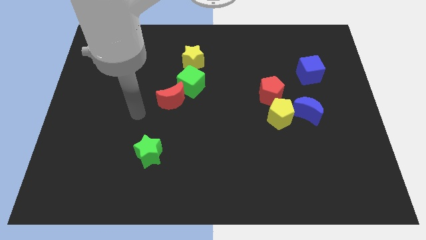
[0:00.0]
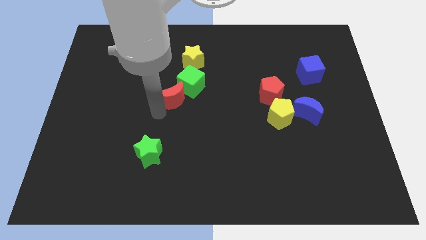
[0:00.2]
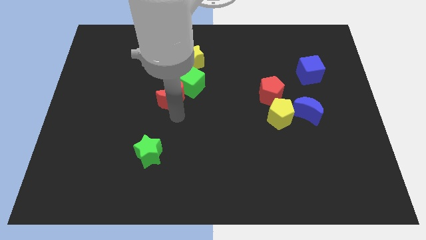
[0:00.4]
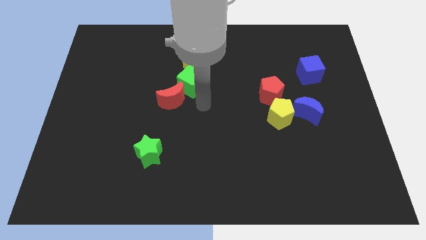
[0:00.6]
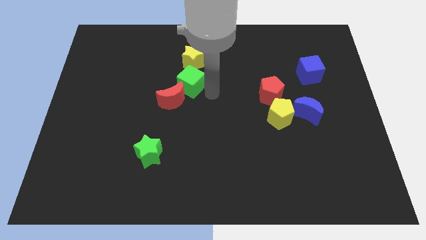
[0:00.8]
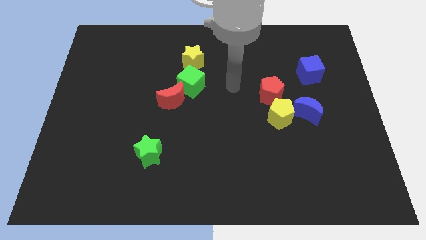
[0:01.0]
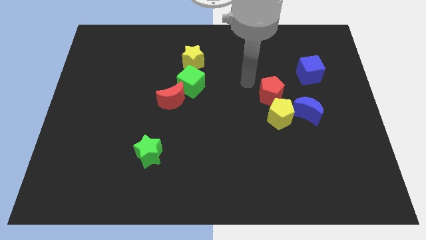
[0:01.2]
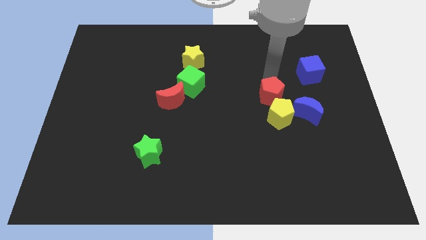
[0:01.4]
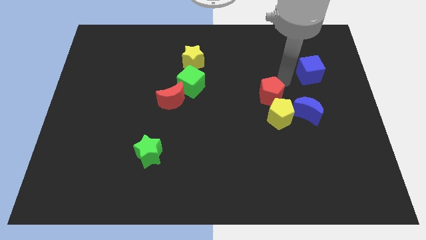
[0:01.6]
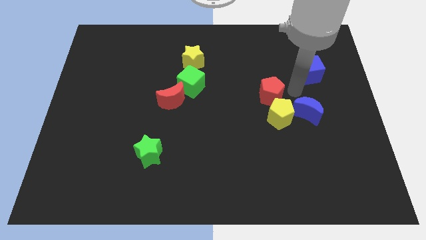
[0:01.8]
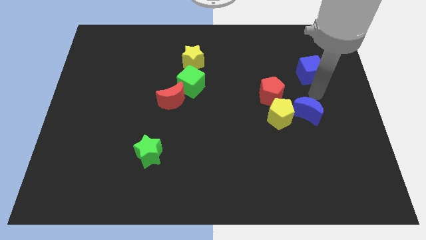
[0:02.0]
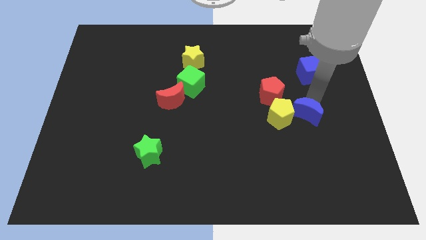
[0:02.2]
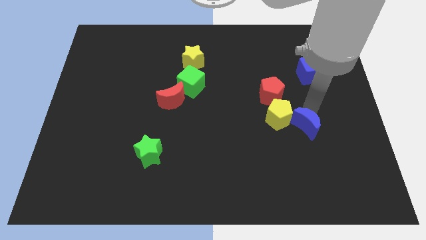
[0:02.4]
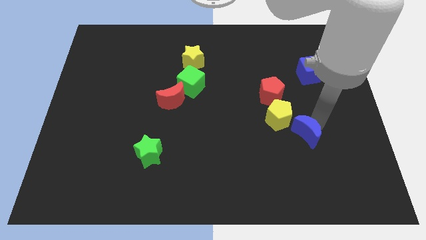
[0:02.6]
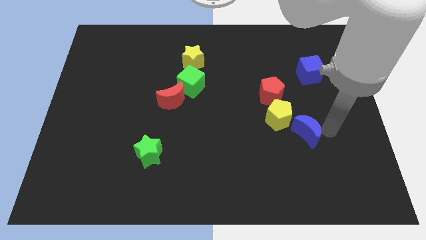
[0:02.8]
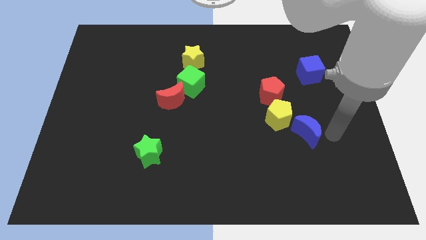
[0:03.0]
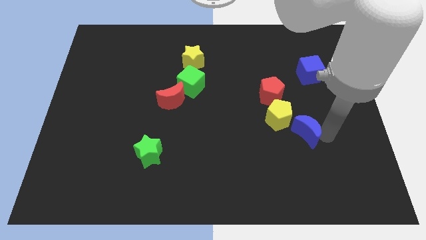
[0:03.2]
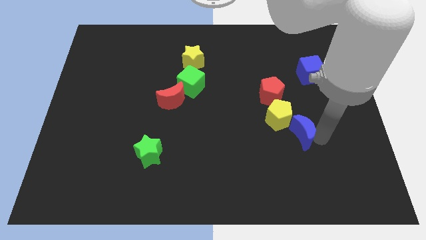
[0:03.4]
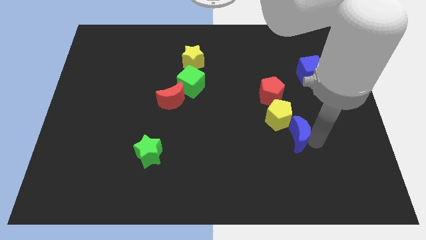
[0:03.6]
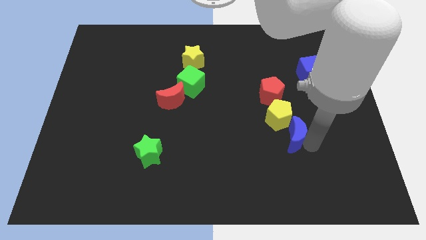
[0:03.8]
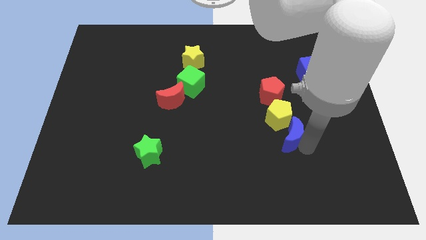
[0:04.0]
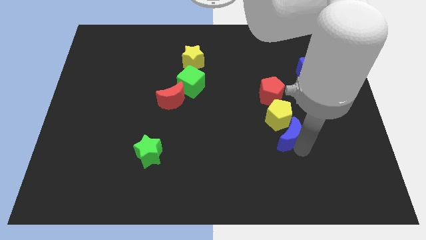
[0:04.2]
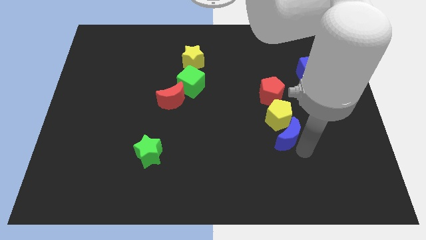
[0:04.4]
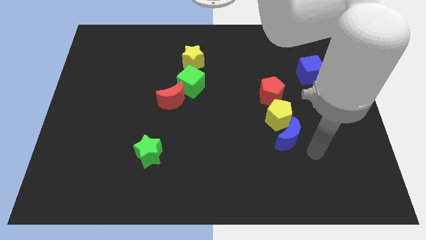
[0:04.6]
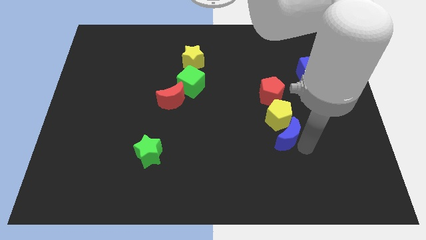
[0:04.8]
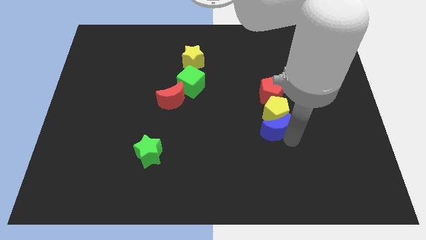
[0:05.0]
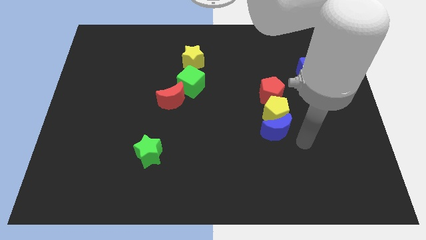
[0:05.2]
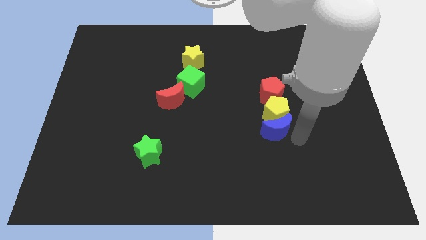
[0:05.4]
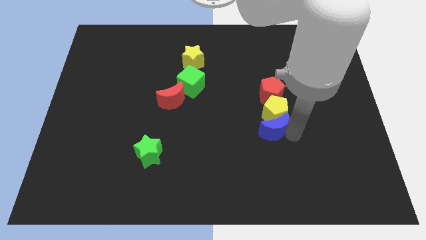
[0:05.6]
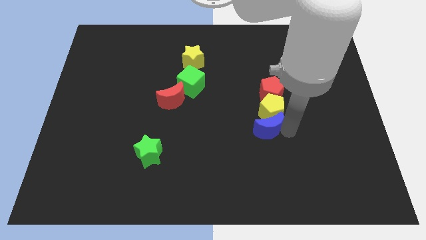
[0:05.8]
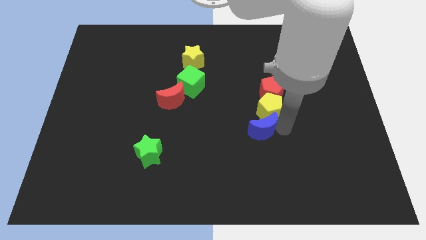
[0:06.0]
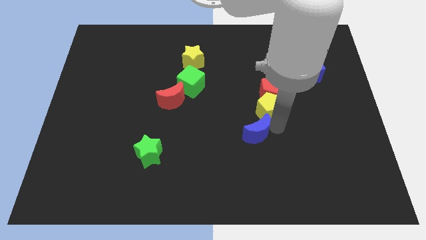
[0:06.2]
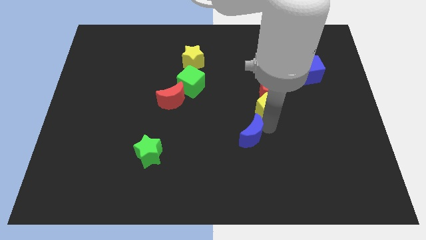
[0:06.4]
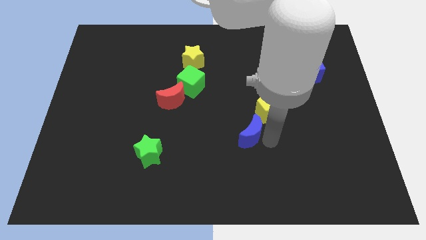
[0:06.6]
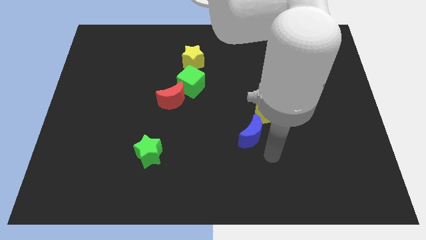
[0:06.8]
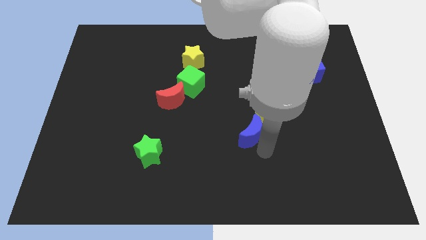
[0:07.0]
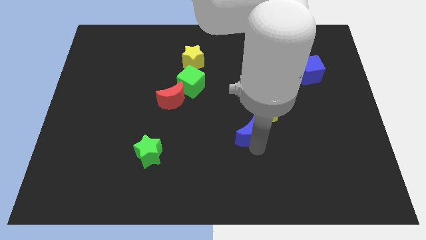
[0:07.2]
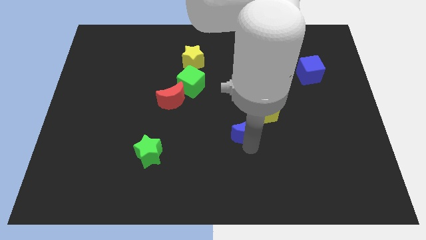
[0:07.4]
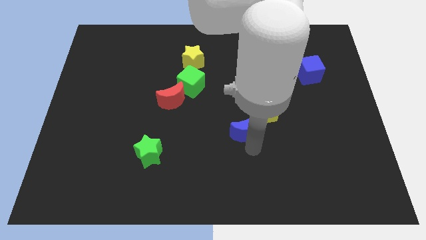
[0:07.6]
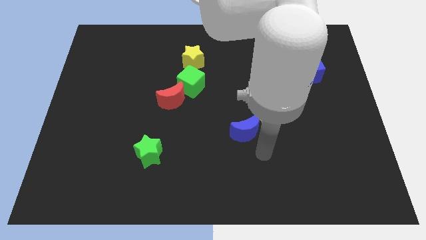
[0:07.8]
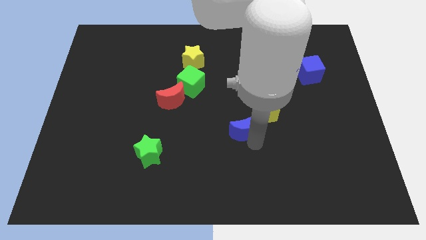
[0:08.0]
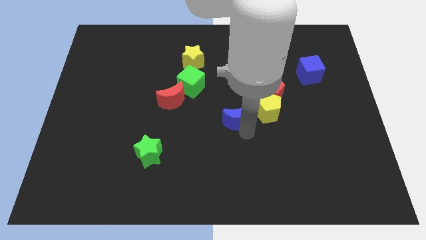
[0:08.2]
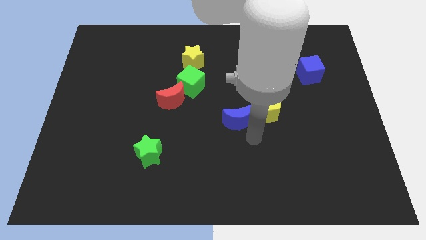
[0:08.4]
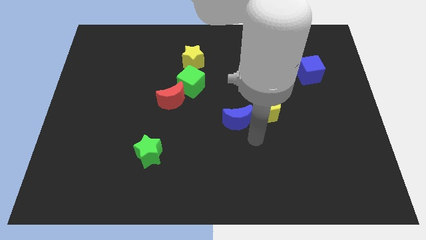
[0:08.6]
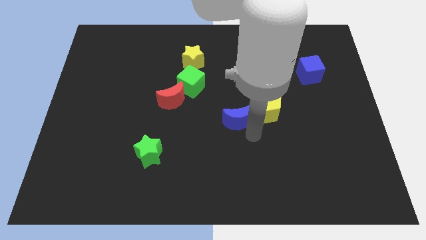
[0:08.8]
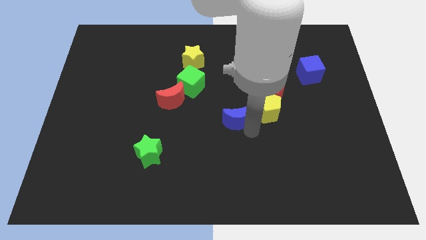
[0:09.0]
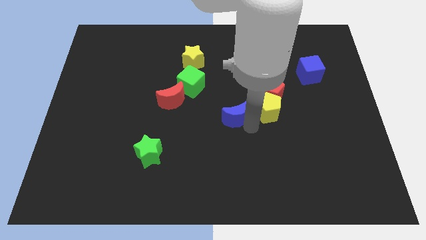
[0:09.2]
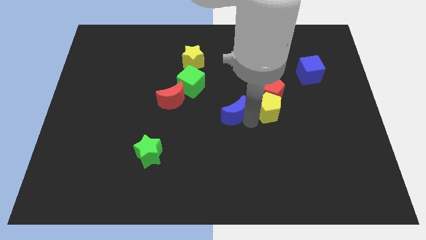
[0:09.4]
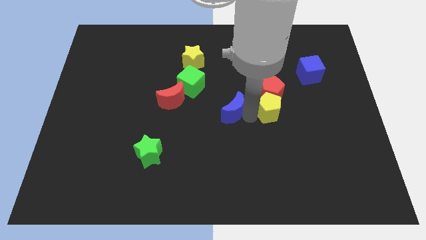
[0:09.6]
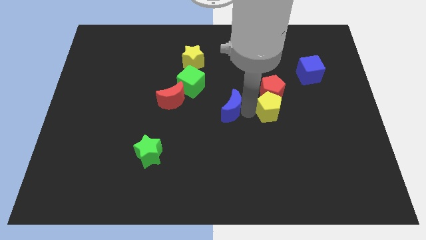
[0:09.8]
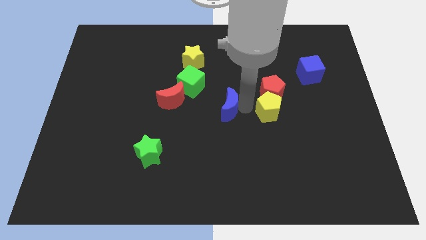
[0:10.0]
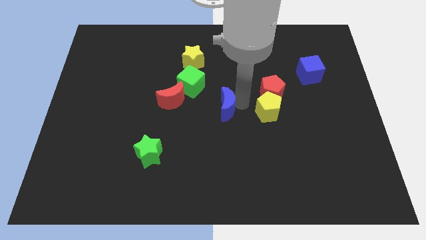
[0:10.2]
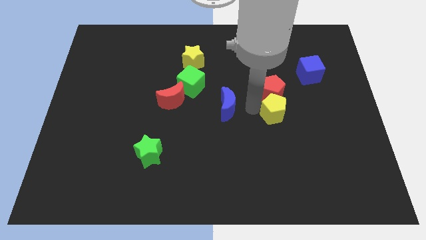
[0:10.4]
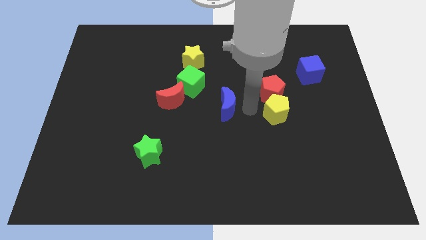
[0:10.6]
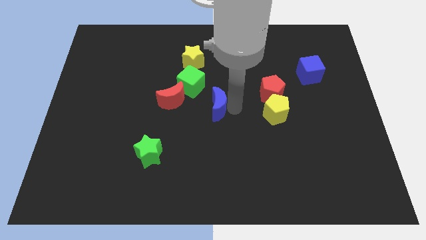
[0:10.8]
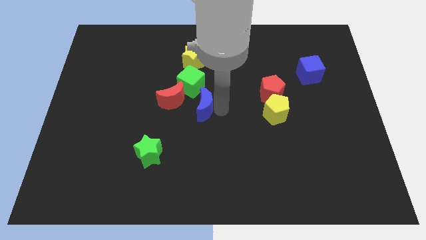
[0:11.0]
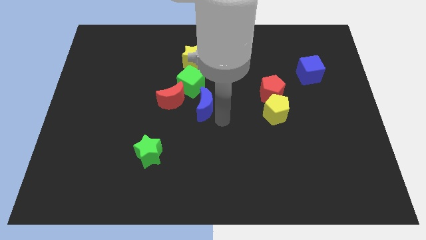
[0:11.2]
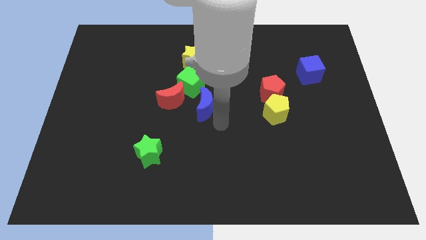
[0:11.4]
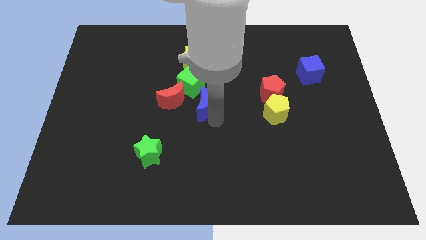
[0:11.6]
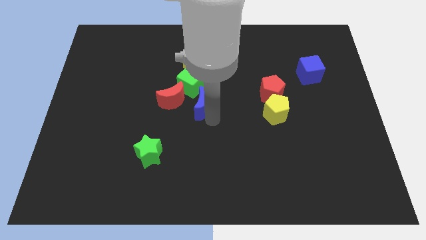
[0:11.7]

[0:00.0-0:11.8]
put the blue moon below the yellow star

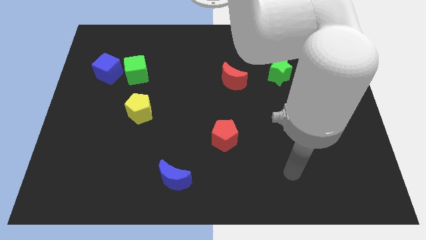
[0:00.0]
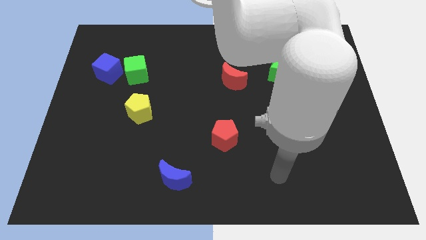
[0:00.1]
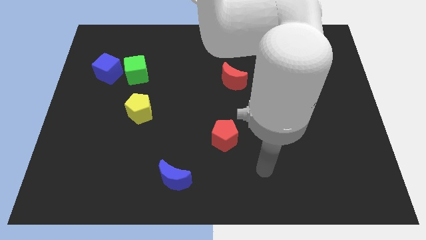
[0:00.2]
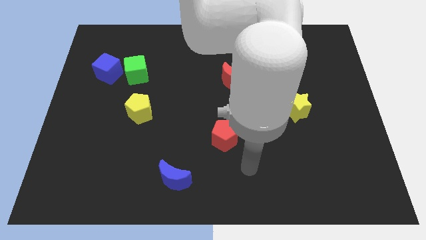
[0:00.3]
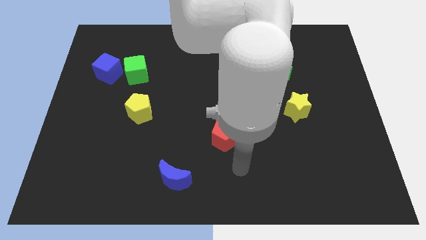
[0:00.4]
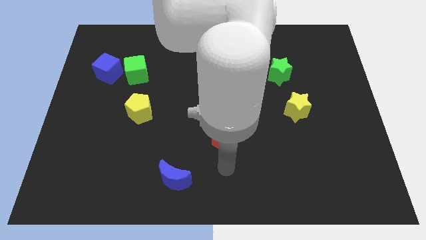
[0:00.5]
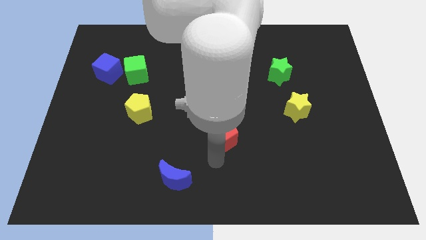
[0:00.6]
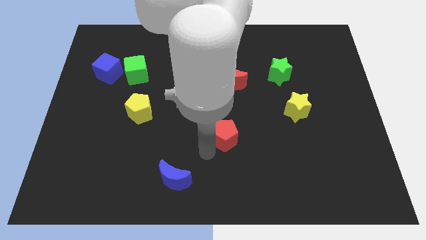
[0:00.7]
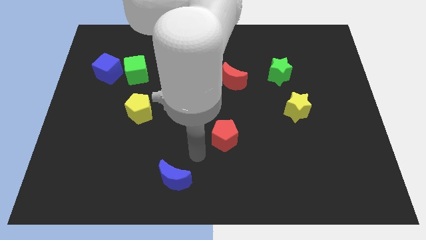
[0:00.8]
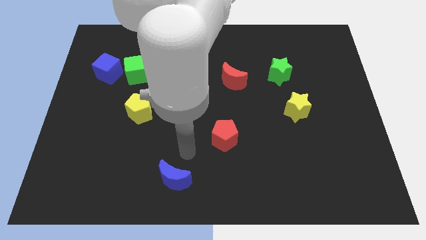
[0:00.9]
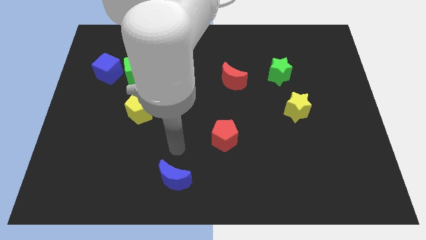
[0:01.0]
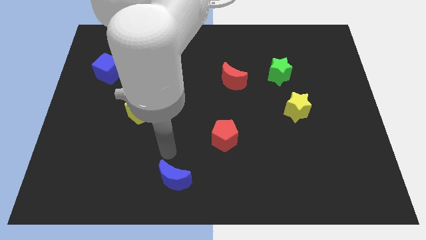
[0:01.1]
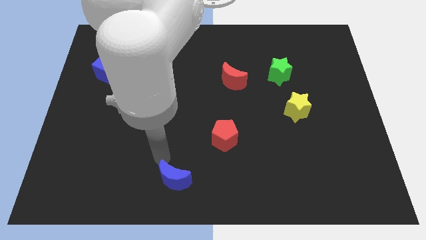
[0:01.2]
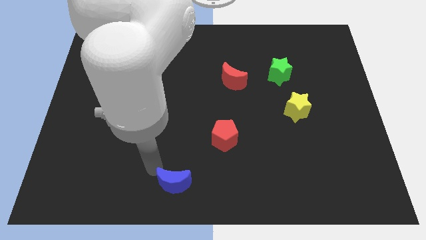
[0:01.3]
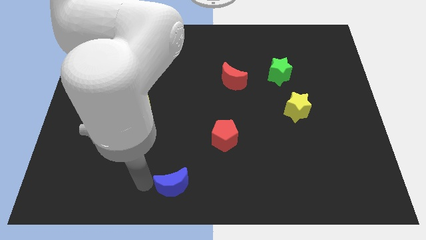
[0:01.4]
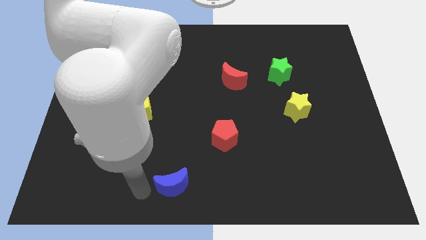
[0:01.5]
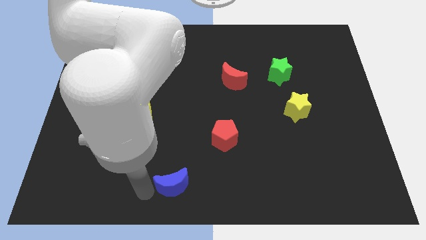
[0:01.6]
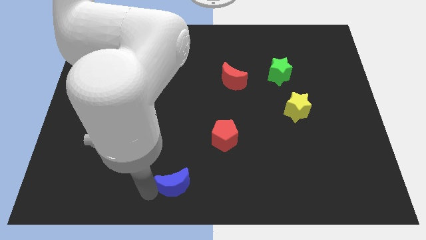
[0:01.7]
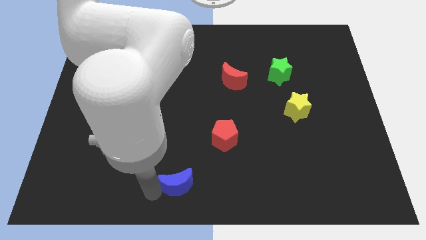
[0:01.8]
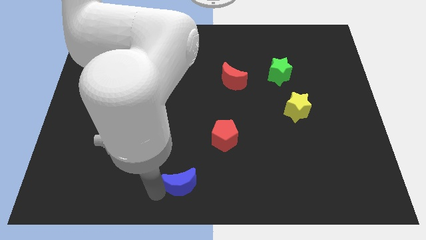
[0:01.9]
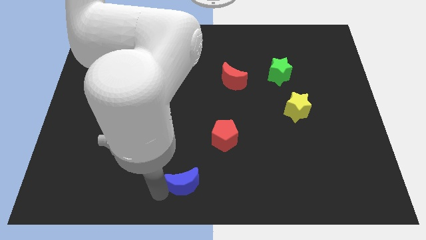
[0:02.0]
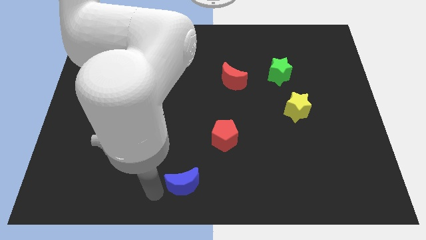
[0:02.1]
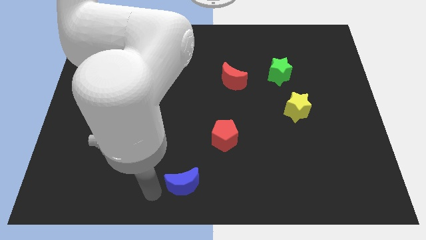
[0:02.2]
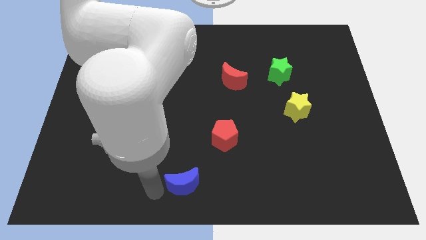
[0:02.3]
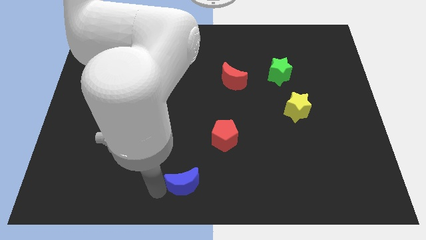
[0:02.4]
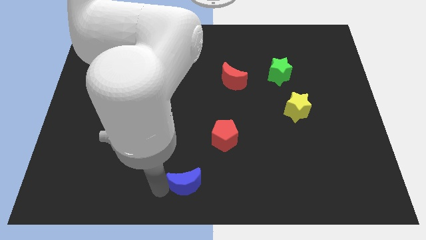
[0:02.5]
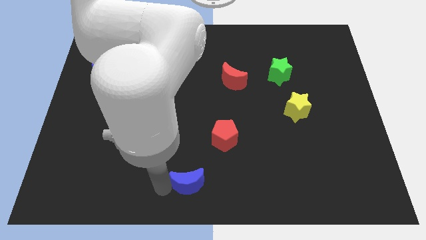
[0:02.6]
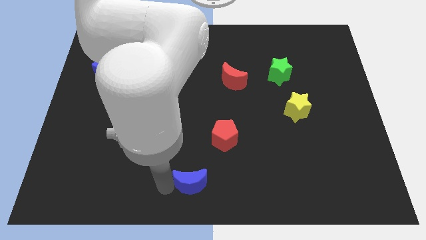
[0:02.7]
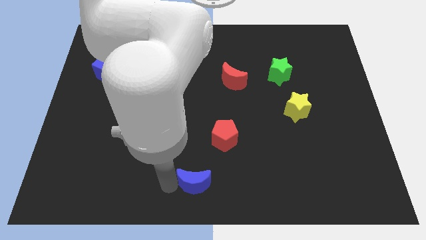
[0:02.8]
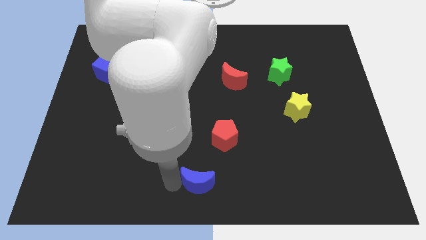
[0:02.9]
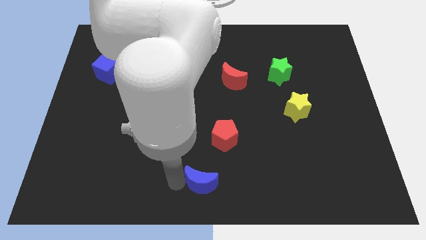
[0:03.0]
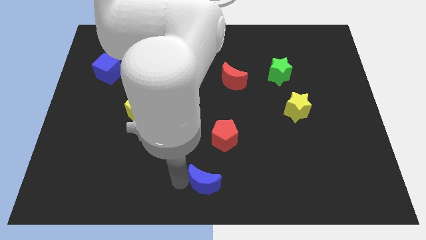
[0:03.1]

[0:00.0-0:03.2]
slide the blue moon to the bottom of the red pentagon
